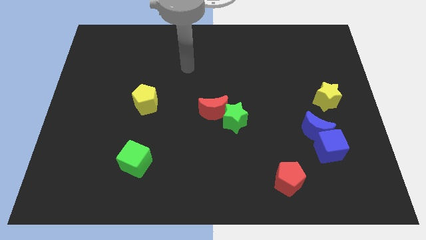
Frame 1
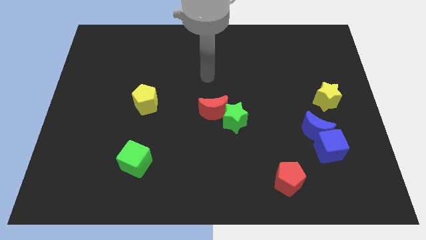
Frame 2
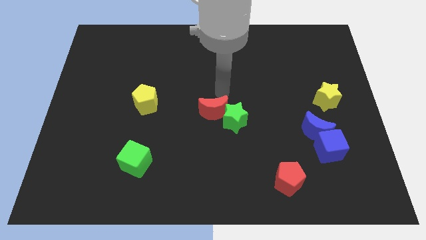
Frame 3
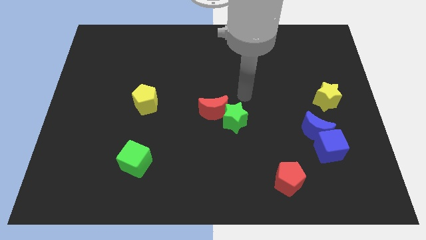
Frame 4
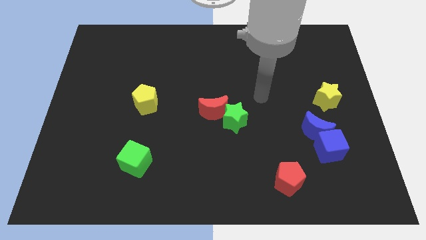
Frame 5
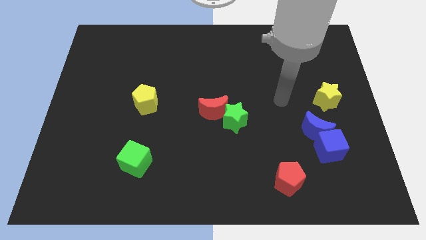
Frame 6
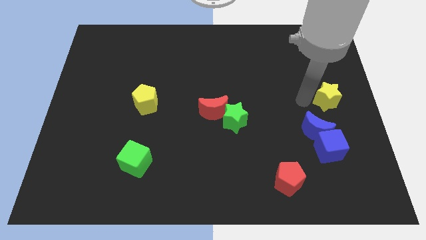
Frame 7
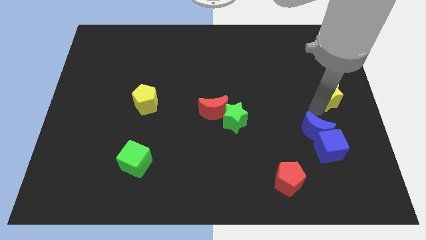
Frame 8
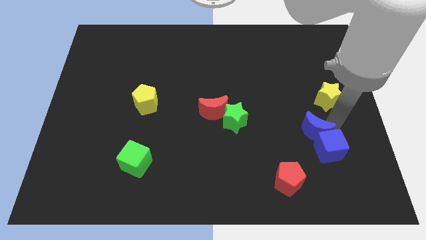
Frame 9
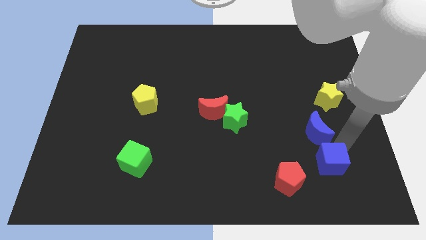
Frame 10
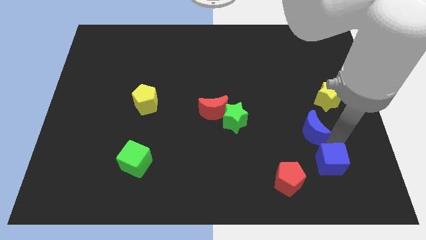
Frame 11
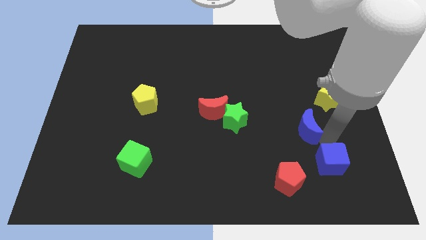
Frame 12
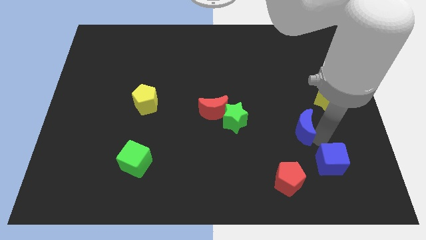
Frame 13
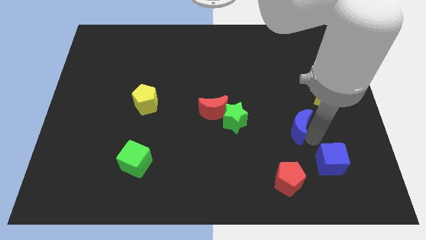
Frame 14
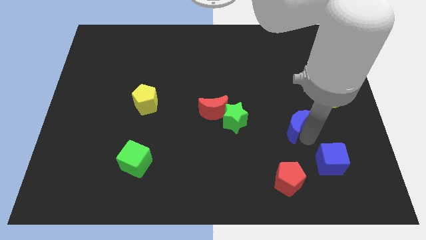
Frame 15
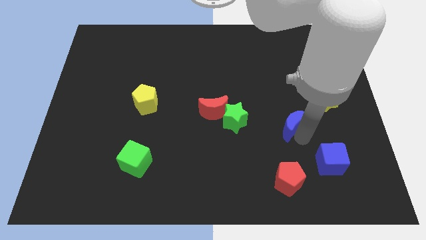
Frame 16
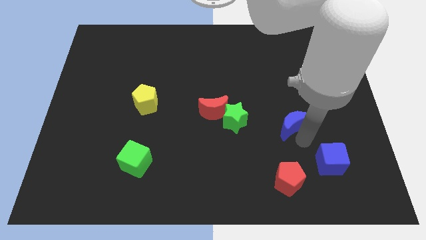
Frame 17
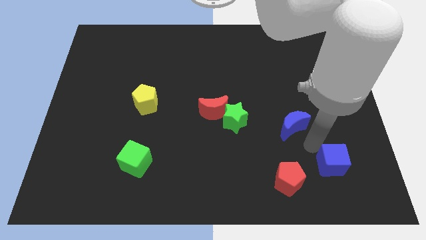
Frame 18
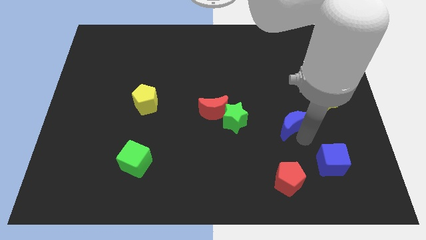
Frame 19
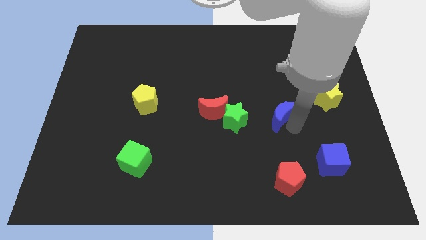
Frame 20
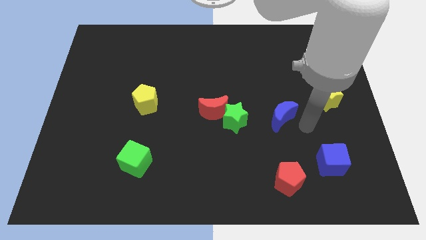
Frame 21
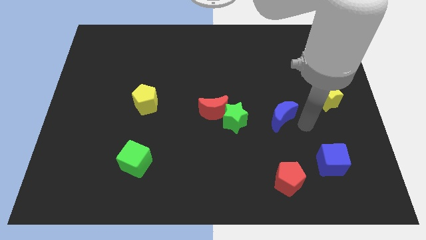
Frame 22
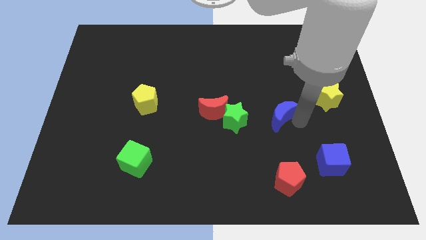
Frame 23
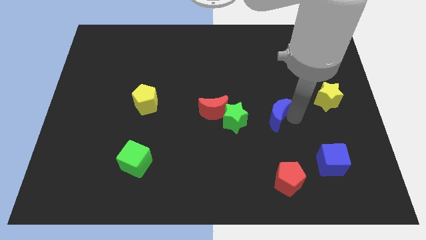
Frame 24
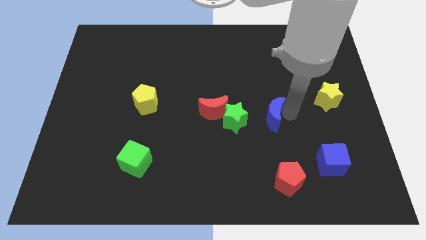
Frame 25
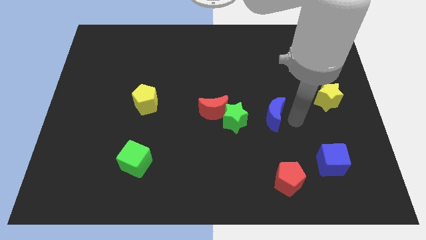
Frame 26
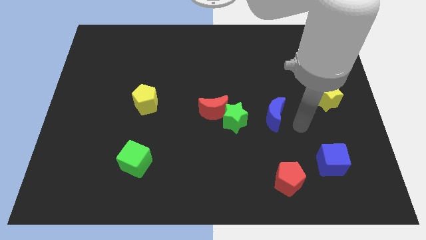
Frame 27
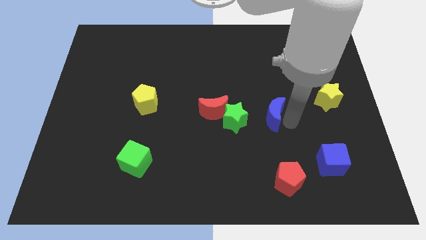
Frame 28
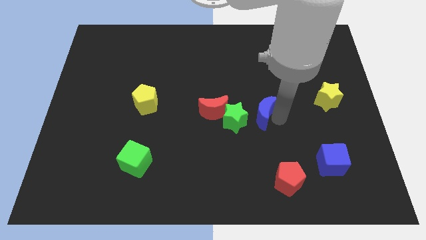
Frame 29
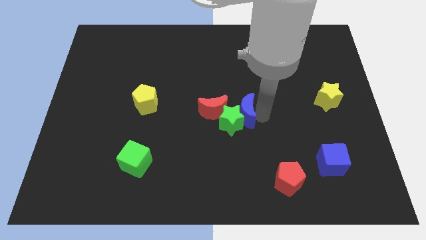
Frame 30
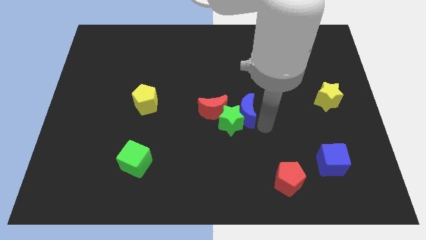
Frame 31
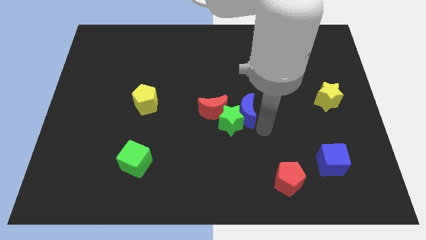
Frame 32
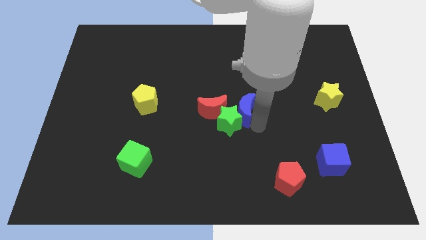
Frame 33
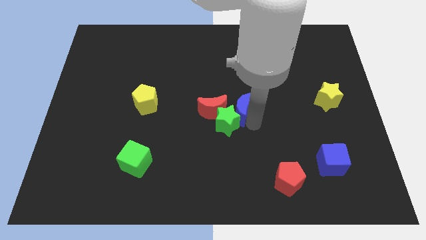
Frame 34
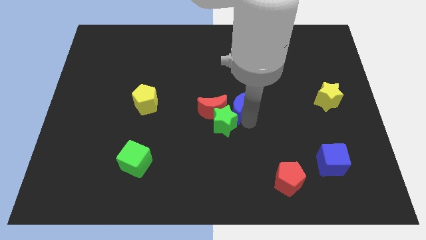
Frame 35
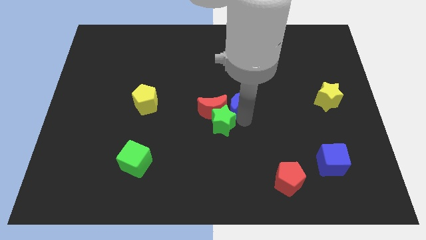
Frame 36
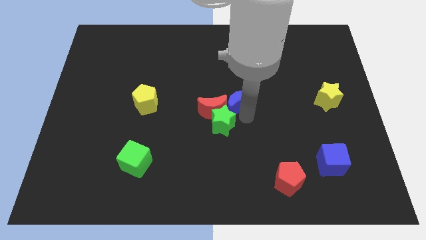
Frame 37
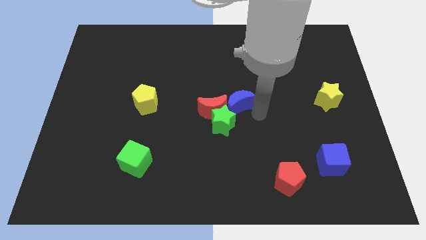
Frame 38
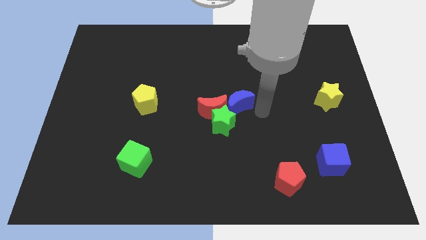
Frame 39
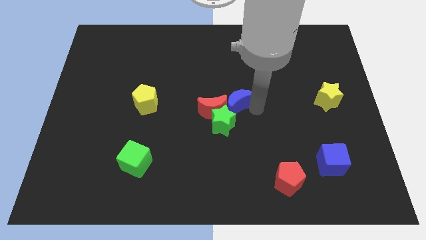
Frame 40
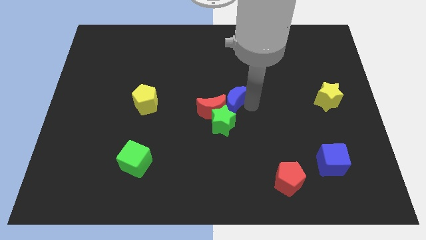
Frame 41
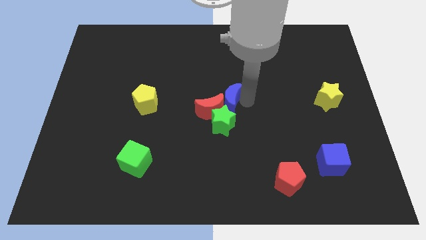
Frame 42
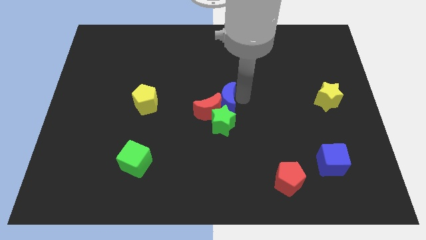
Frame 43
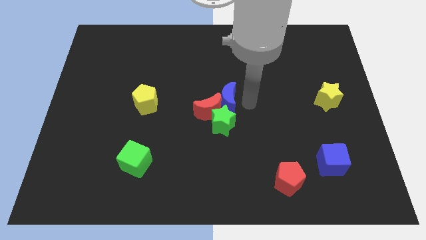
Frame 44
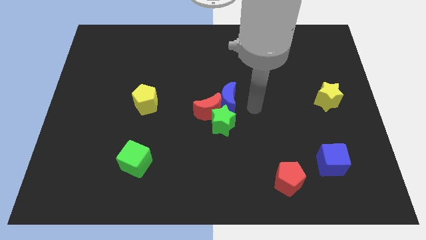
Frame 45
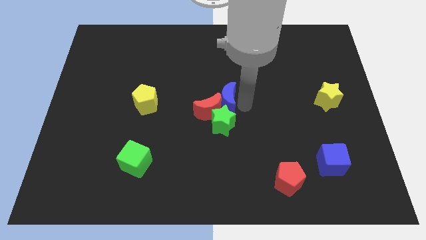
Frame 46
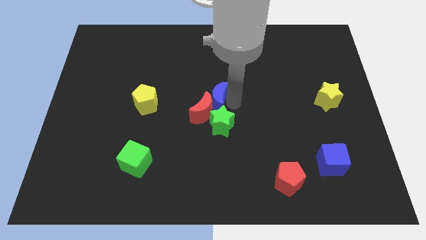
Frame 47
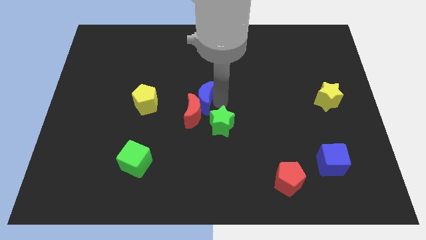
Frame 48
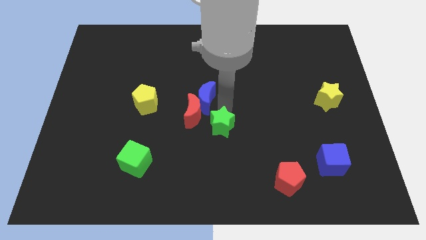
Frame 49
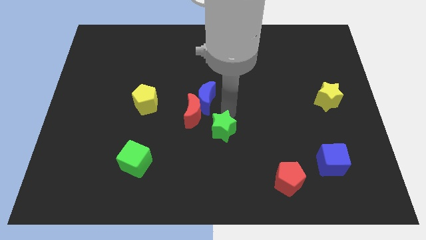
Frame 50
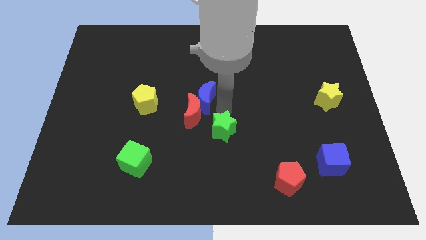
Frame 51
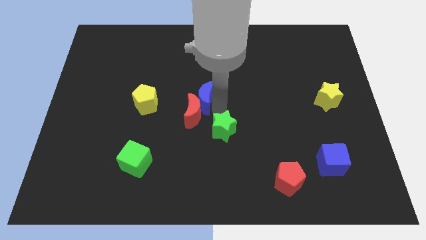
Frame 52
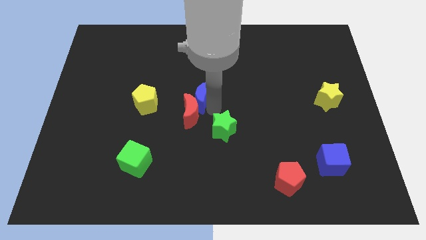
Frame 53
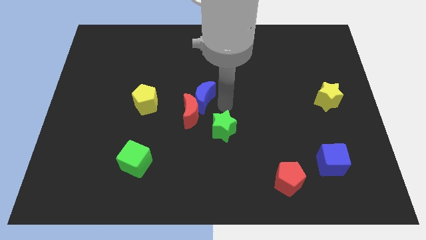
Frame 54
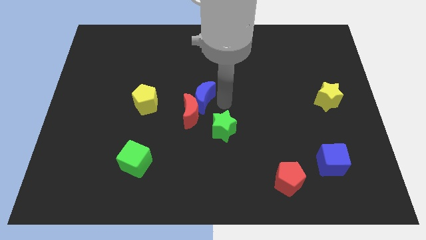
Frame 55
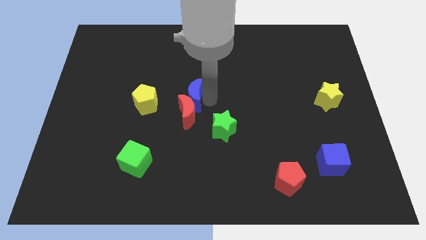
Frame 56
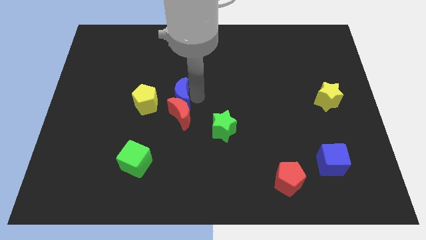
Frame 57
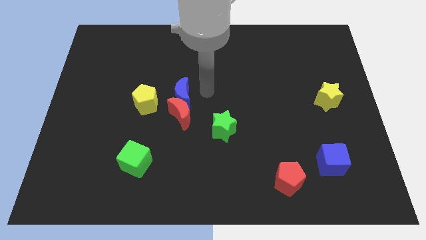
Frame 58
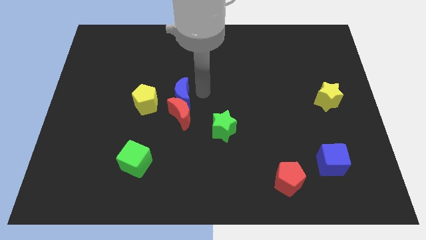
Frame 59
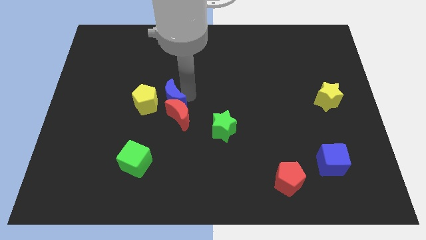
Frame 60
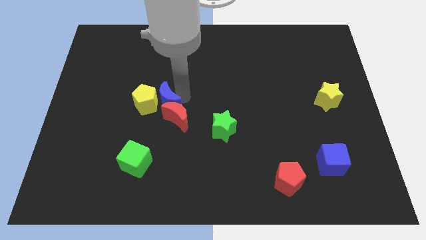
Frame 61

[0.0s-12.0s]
move the blue moon to the yellow pentagon

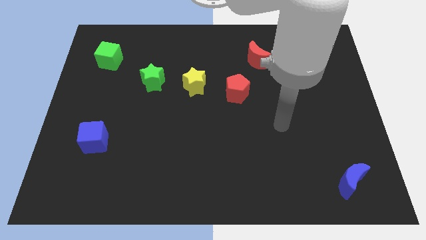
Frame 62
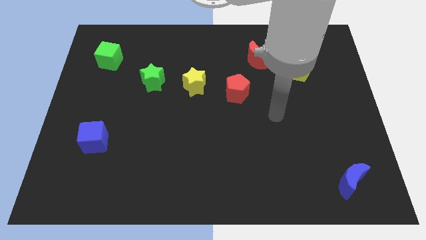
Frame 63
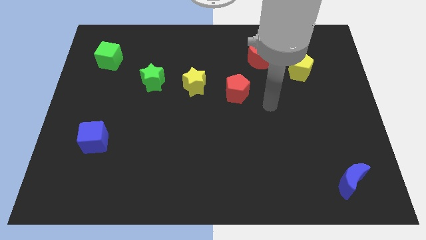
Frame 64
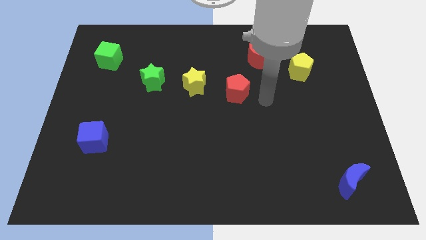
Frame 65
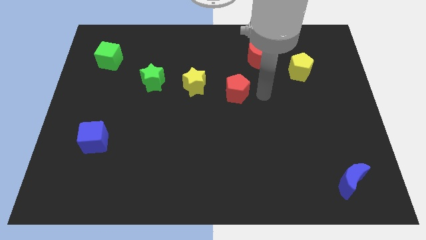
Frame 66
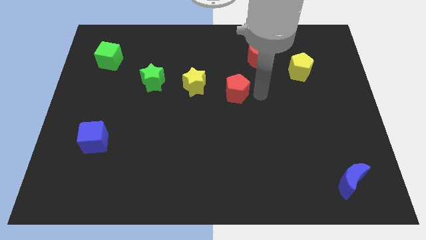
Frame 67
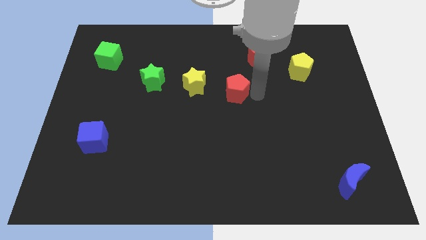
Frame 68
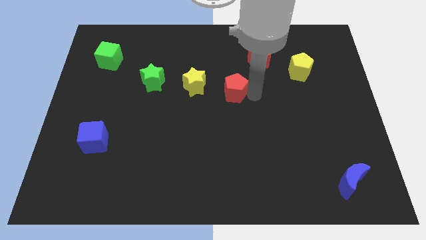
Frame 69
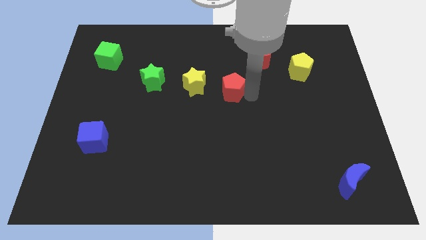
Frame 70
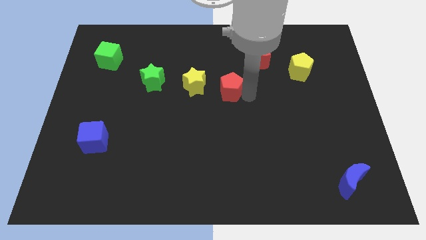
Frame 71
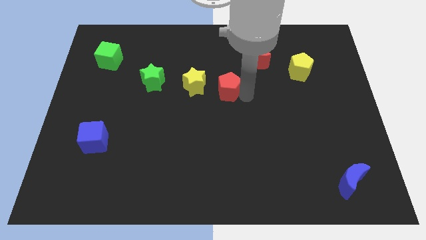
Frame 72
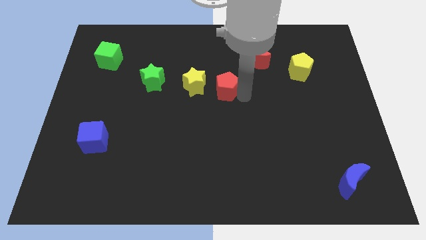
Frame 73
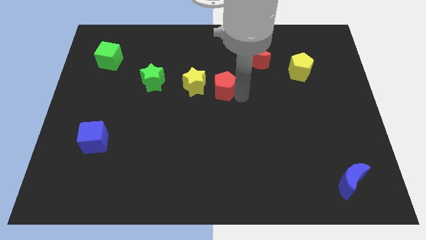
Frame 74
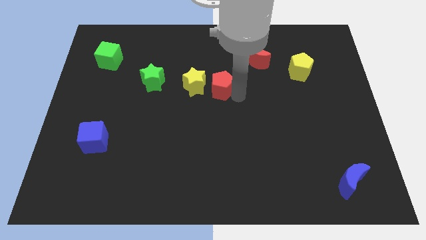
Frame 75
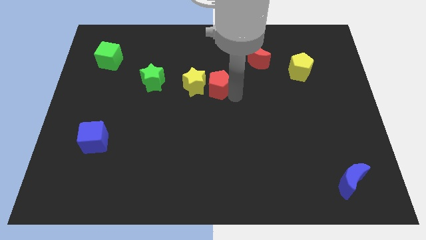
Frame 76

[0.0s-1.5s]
put the red pentagon close to the yellow star
